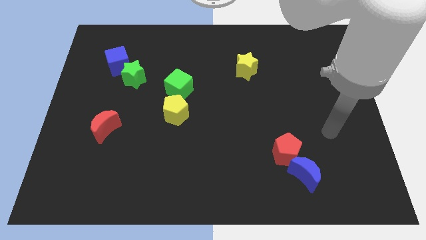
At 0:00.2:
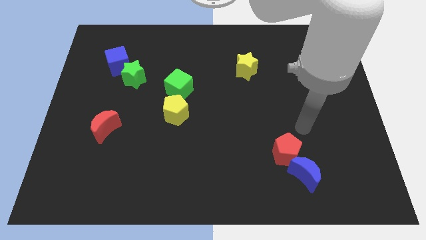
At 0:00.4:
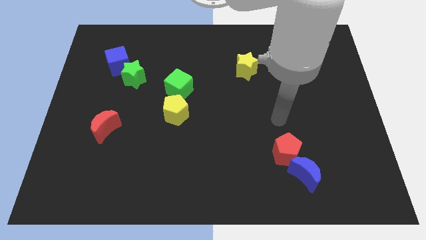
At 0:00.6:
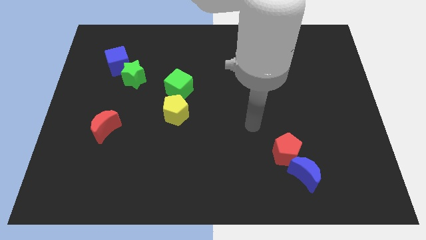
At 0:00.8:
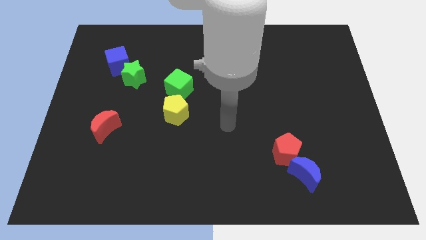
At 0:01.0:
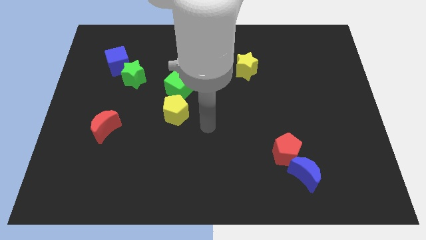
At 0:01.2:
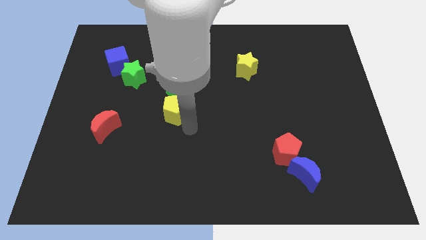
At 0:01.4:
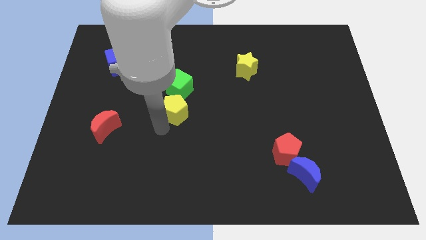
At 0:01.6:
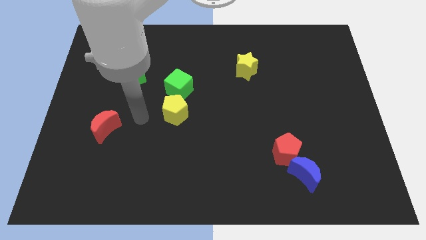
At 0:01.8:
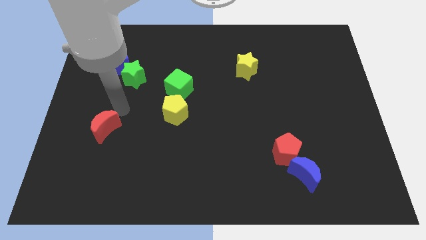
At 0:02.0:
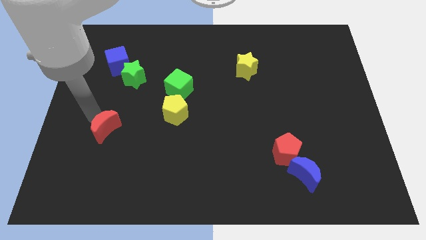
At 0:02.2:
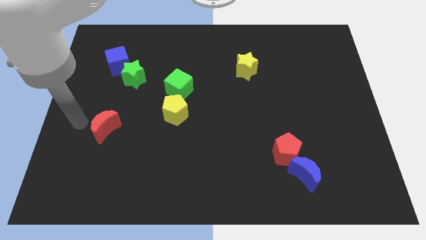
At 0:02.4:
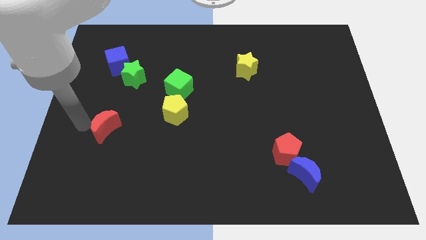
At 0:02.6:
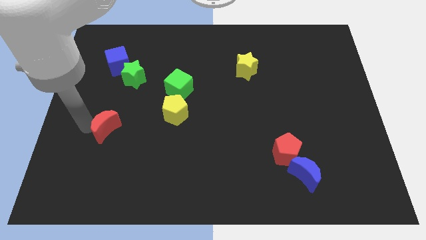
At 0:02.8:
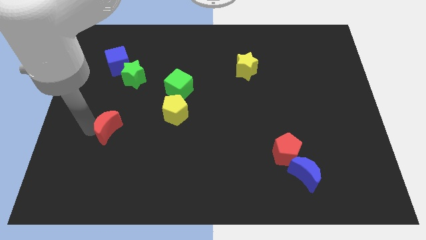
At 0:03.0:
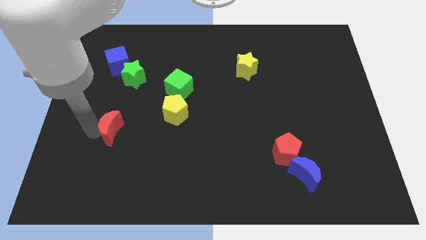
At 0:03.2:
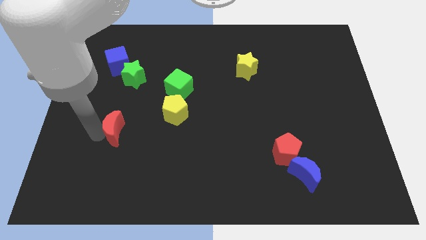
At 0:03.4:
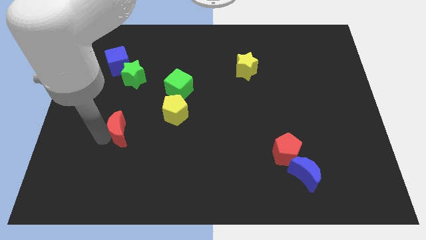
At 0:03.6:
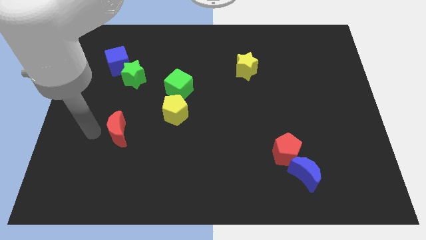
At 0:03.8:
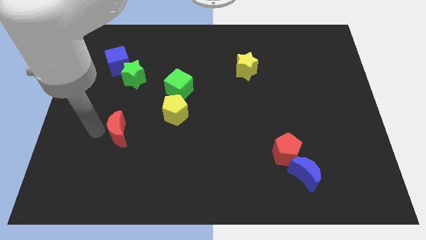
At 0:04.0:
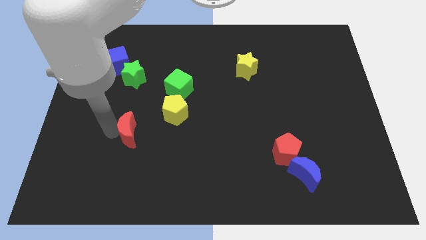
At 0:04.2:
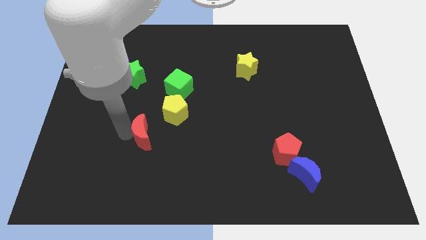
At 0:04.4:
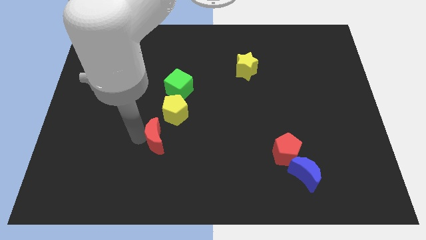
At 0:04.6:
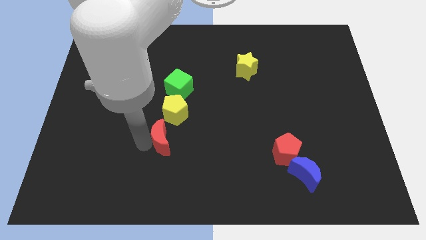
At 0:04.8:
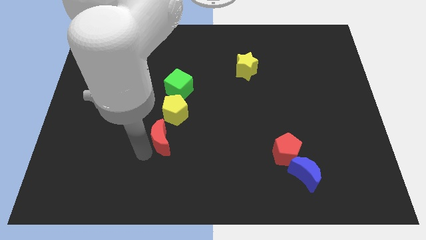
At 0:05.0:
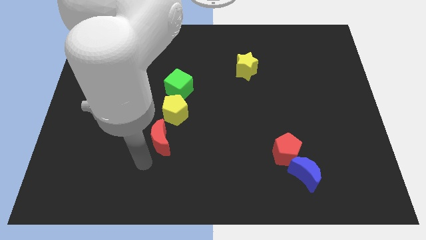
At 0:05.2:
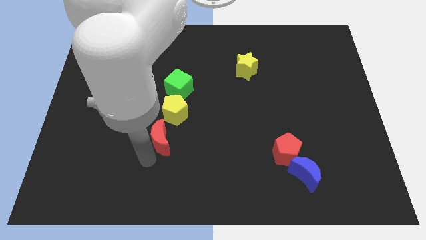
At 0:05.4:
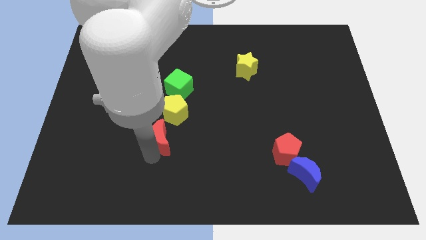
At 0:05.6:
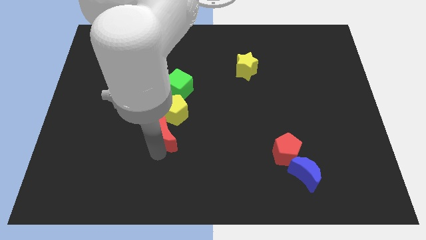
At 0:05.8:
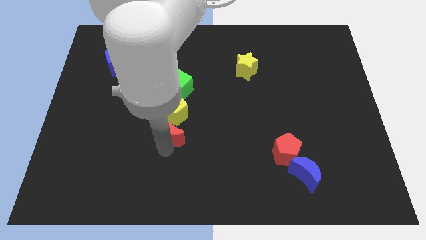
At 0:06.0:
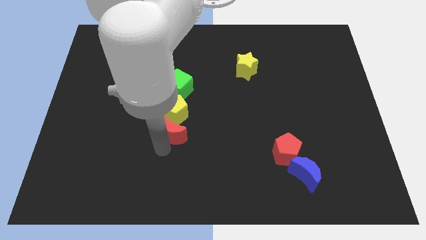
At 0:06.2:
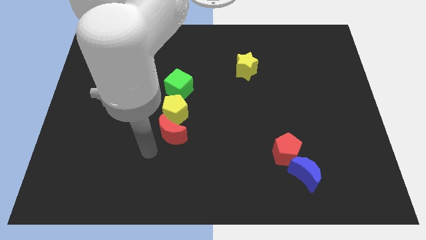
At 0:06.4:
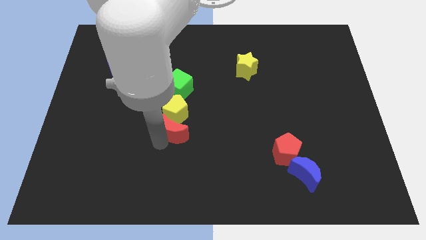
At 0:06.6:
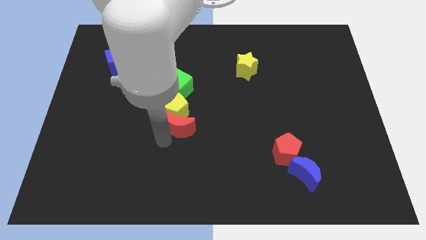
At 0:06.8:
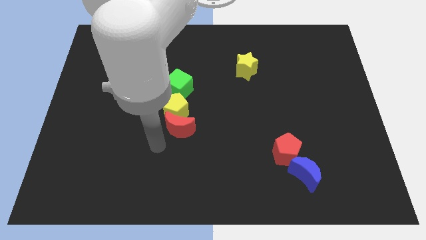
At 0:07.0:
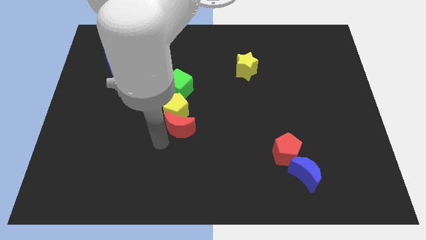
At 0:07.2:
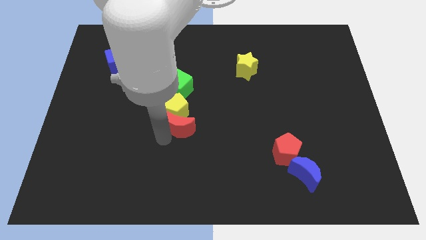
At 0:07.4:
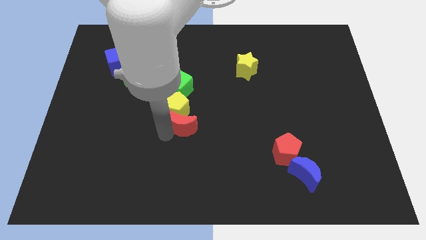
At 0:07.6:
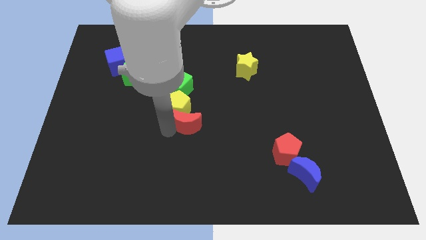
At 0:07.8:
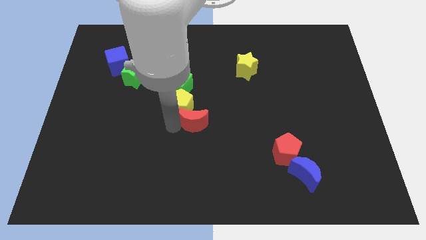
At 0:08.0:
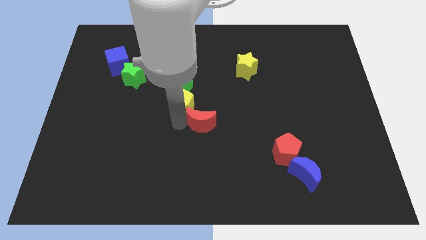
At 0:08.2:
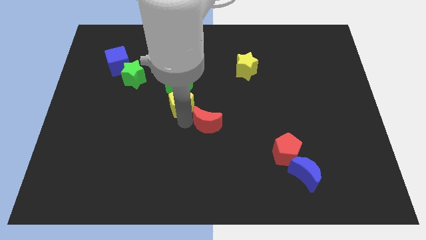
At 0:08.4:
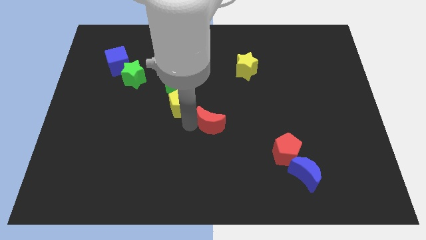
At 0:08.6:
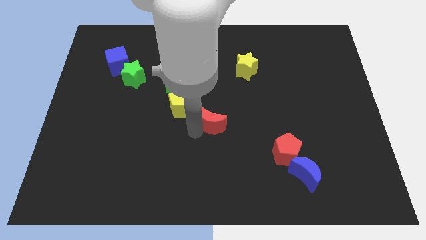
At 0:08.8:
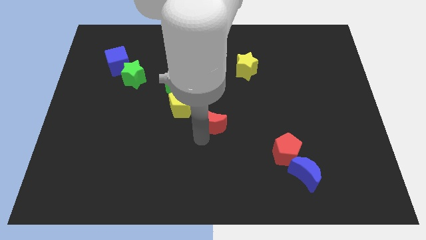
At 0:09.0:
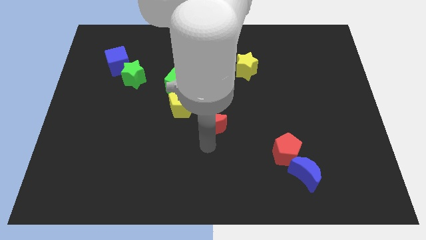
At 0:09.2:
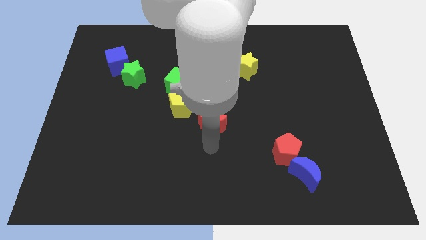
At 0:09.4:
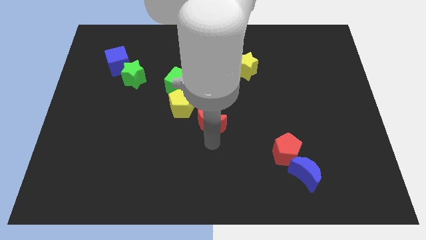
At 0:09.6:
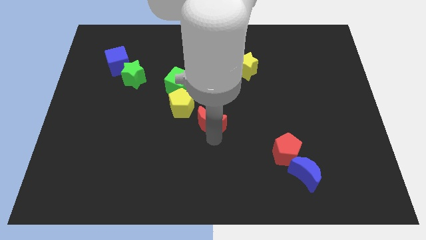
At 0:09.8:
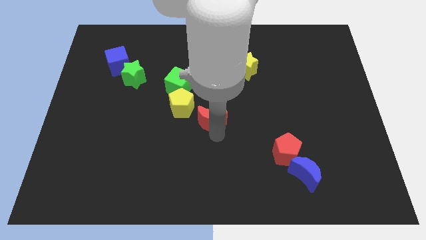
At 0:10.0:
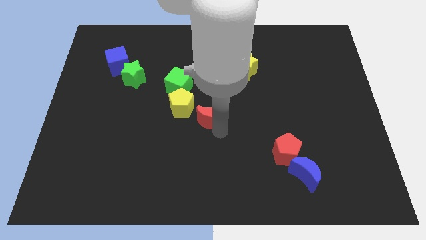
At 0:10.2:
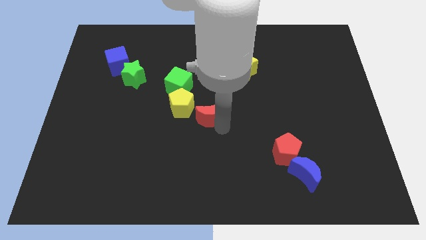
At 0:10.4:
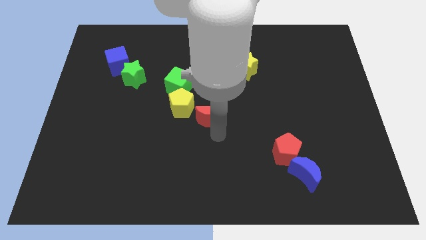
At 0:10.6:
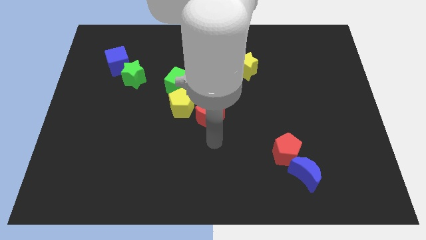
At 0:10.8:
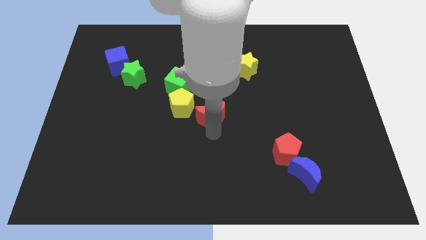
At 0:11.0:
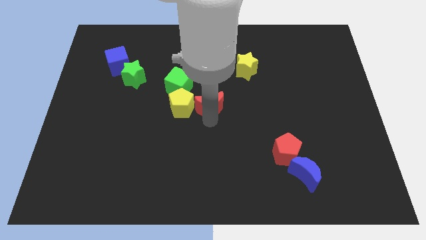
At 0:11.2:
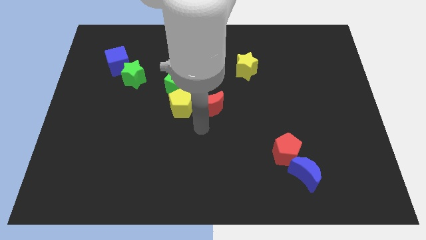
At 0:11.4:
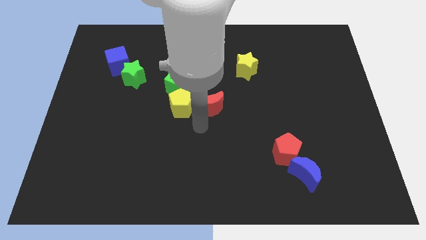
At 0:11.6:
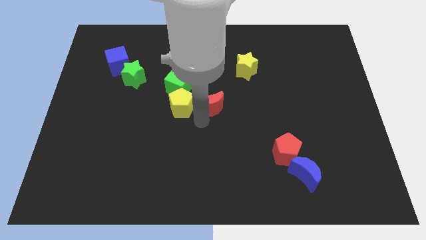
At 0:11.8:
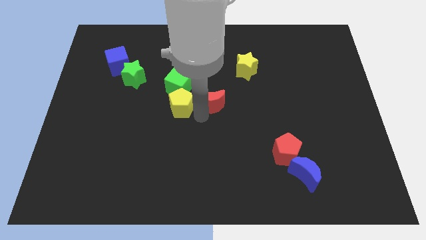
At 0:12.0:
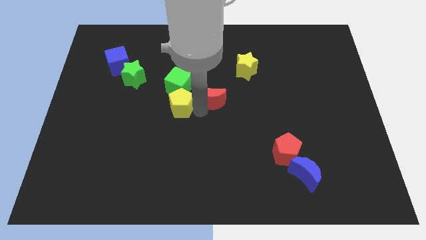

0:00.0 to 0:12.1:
push the red moon right of the green cube

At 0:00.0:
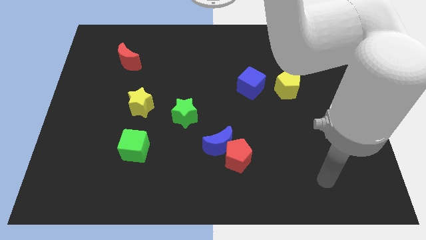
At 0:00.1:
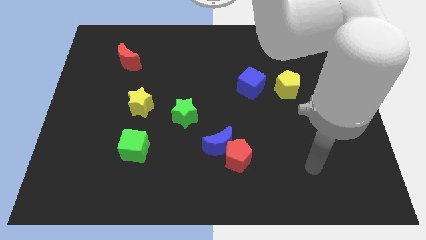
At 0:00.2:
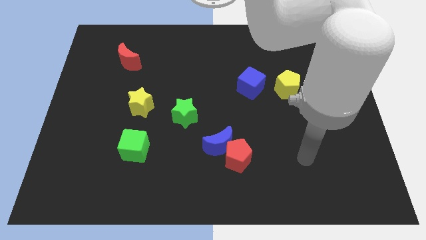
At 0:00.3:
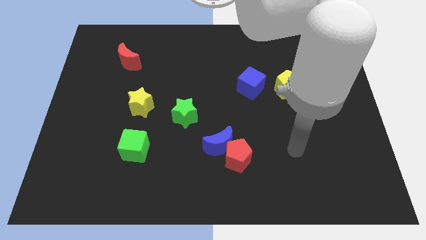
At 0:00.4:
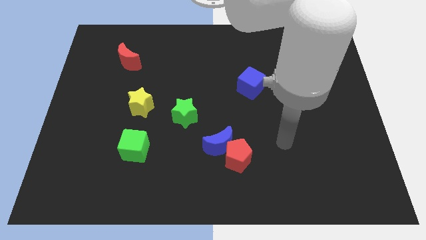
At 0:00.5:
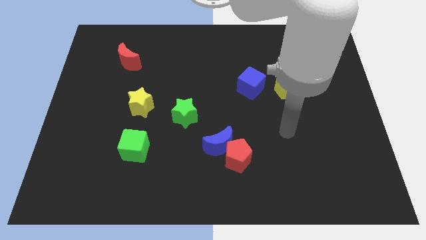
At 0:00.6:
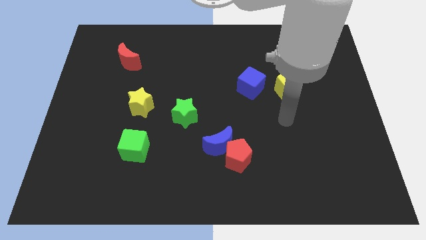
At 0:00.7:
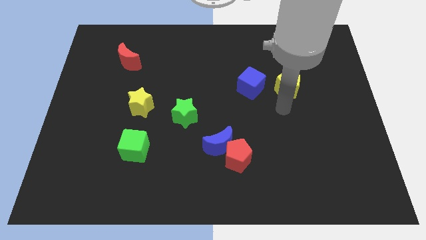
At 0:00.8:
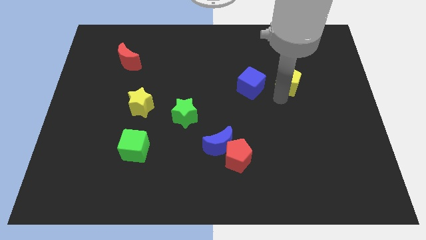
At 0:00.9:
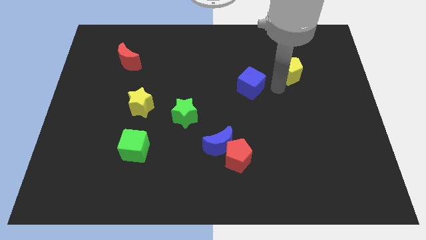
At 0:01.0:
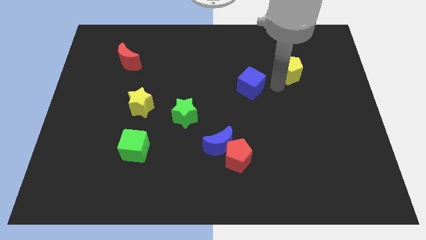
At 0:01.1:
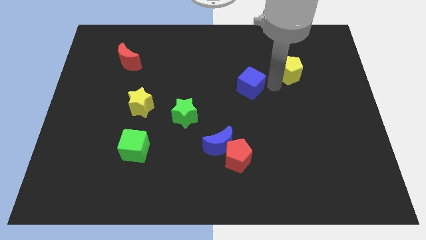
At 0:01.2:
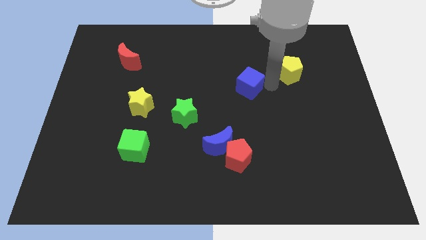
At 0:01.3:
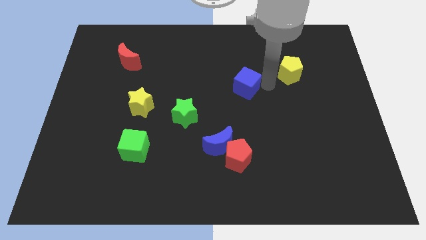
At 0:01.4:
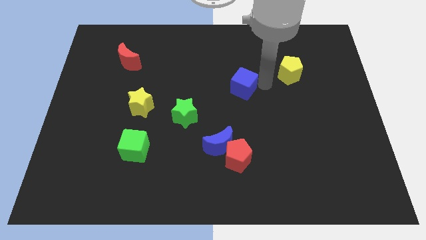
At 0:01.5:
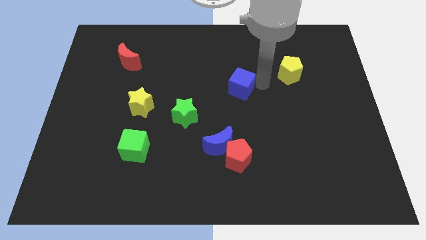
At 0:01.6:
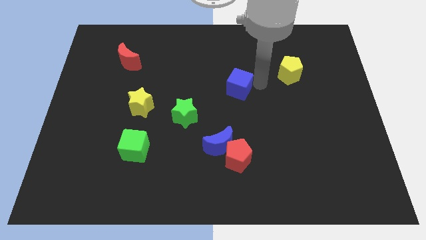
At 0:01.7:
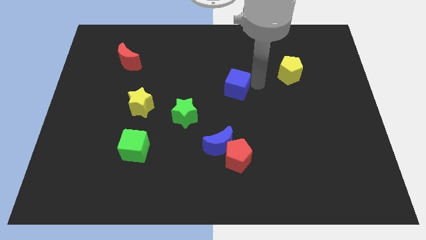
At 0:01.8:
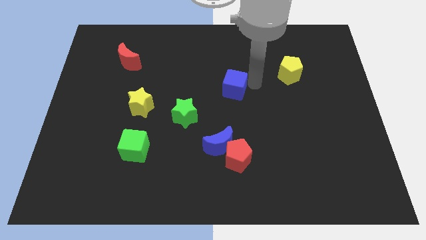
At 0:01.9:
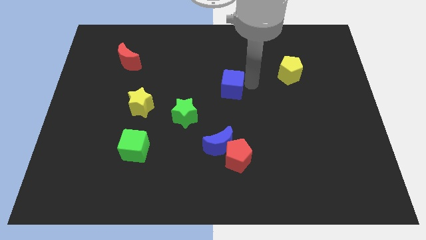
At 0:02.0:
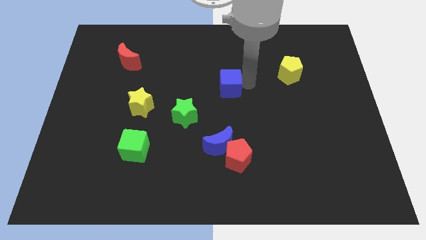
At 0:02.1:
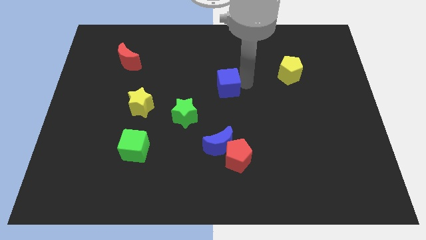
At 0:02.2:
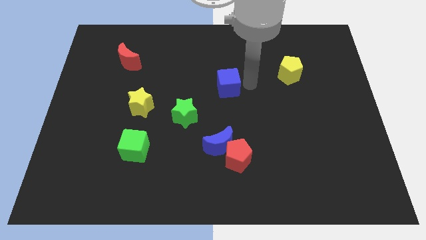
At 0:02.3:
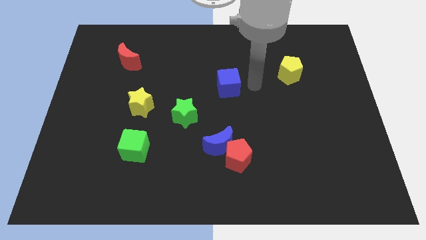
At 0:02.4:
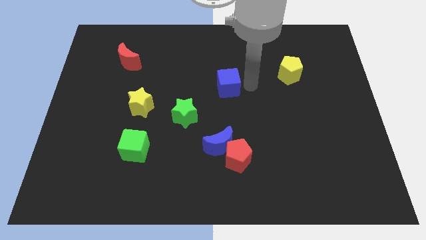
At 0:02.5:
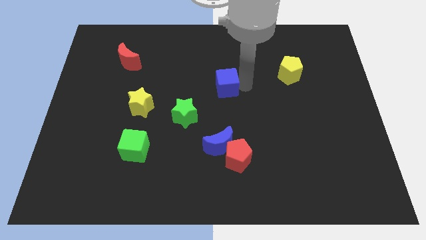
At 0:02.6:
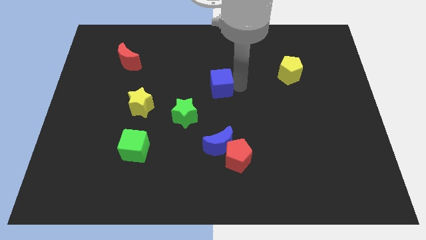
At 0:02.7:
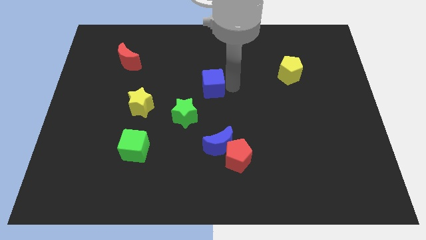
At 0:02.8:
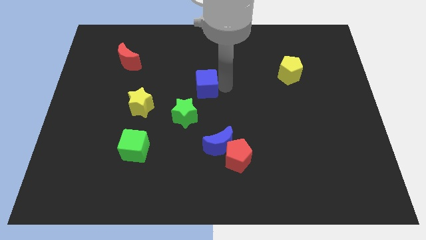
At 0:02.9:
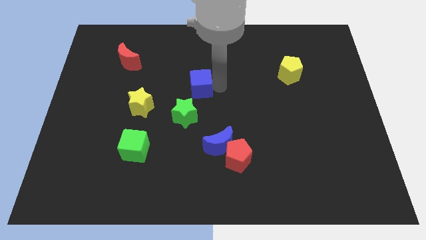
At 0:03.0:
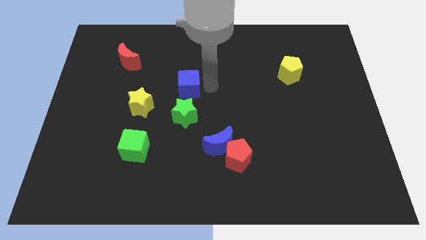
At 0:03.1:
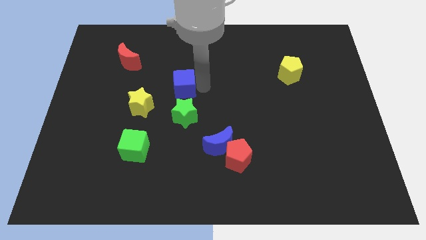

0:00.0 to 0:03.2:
move the blue cube diagonally up and to the right of the yellow star
